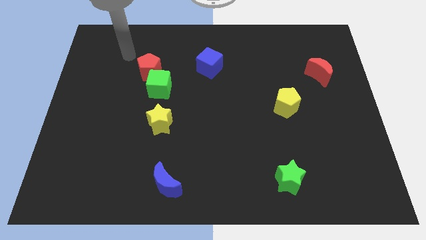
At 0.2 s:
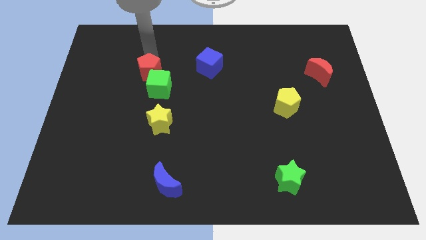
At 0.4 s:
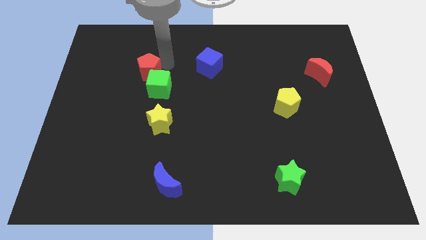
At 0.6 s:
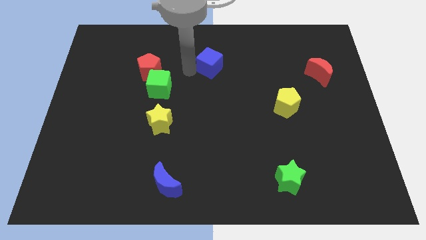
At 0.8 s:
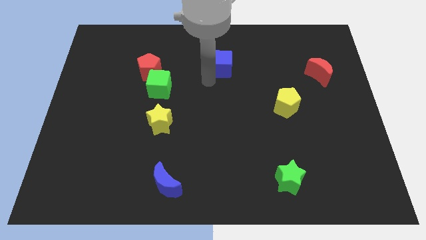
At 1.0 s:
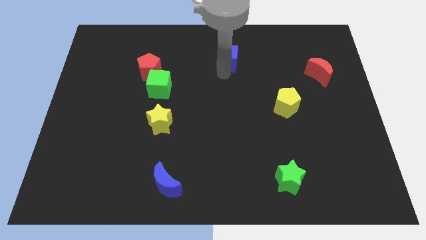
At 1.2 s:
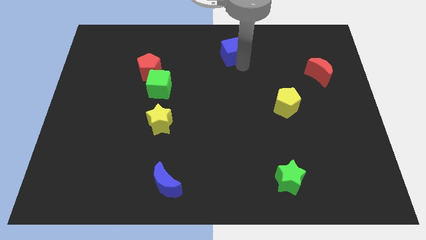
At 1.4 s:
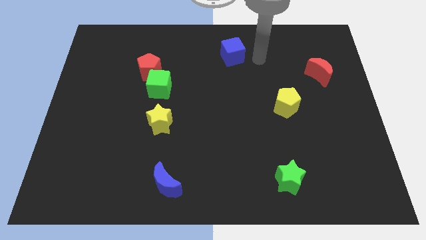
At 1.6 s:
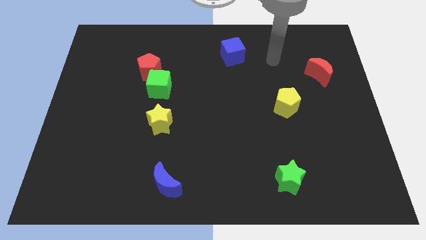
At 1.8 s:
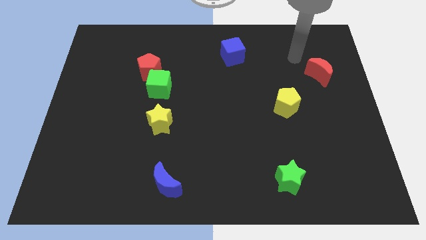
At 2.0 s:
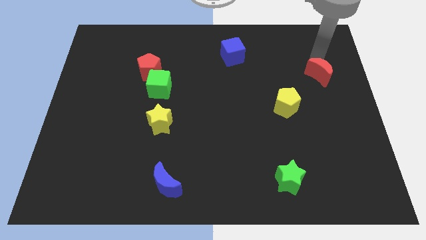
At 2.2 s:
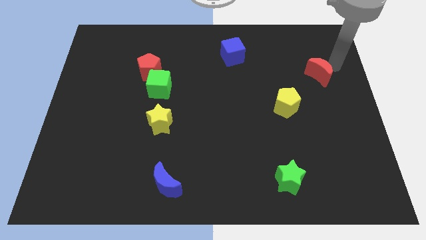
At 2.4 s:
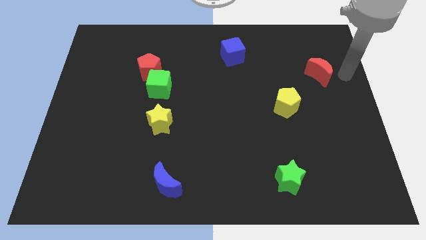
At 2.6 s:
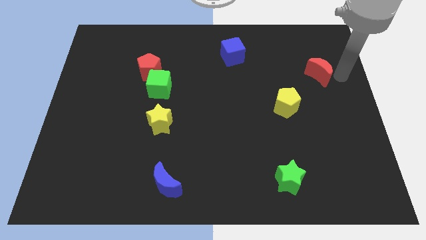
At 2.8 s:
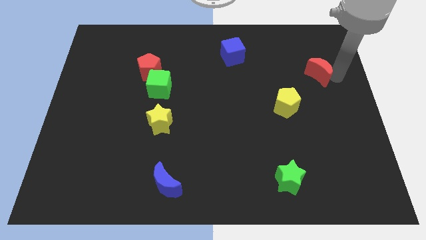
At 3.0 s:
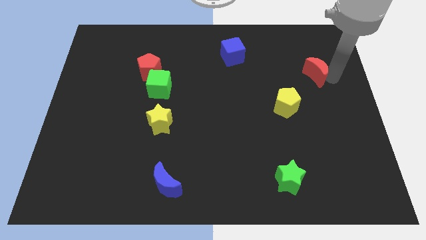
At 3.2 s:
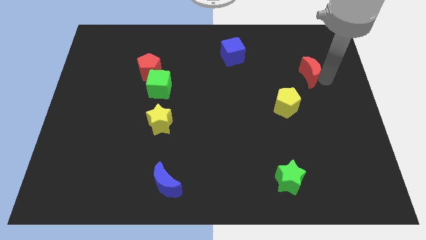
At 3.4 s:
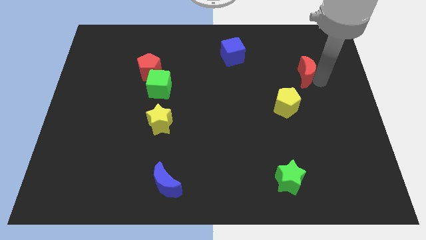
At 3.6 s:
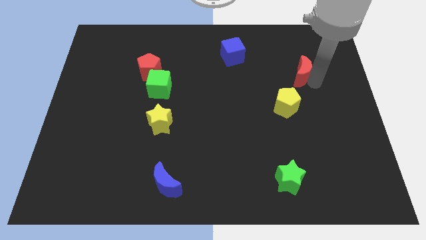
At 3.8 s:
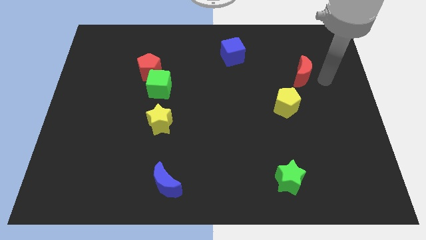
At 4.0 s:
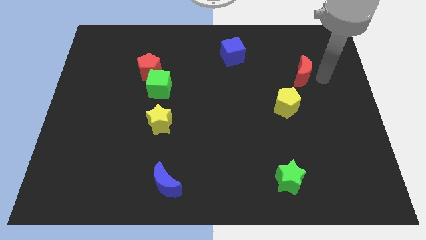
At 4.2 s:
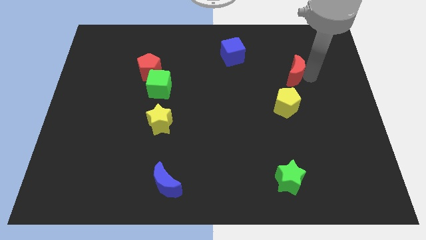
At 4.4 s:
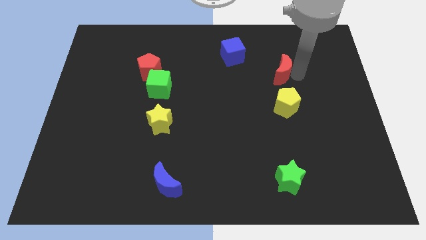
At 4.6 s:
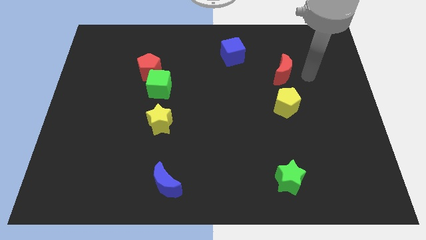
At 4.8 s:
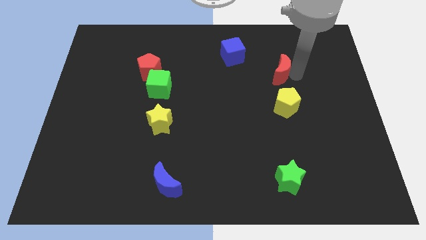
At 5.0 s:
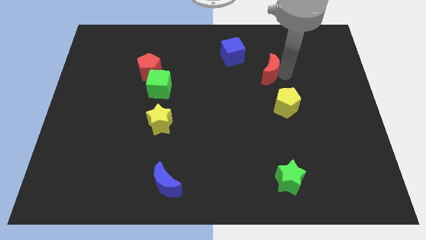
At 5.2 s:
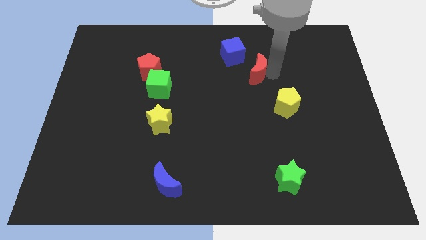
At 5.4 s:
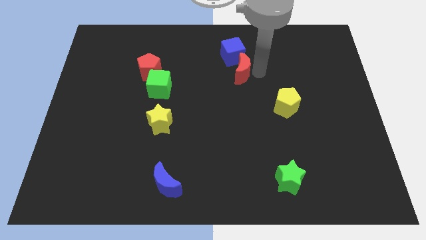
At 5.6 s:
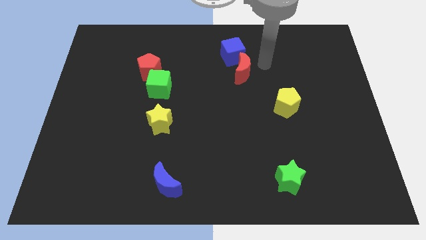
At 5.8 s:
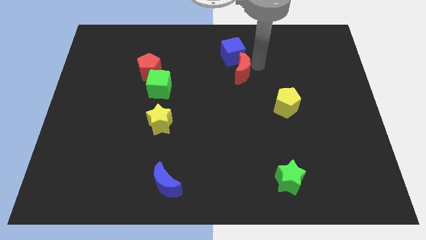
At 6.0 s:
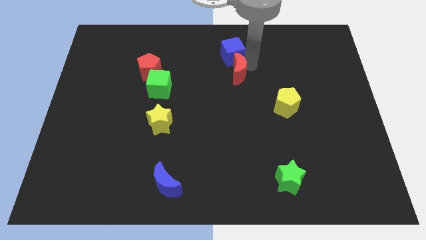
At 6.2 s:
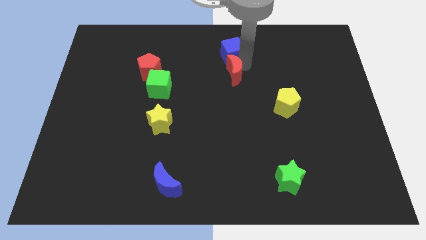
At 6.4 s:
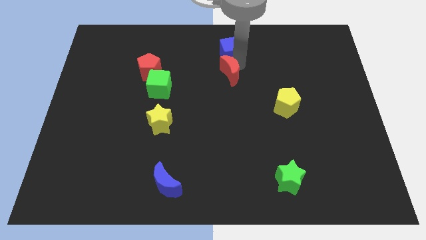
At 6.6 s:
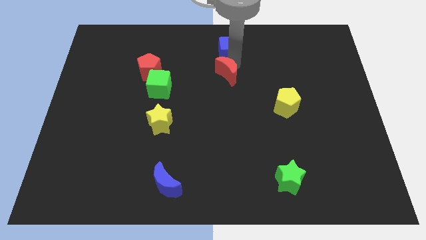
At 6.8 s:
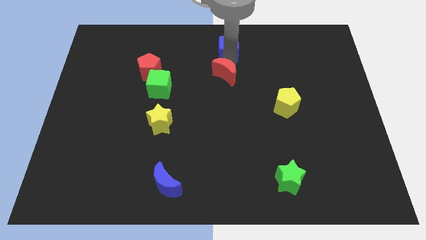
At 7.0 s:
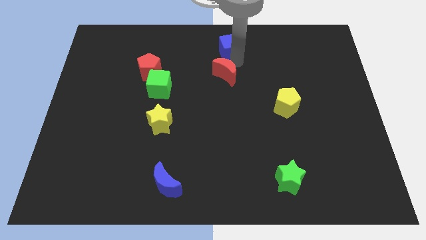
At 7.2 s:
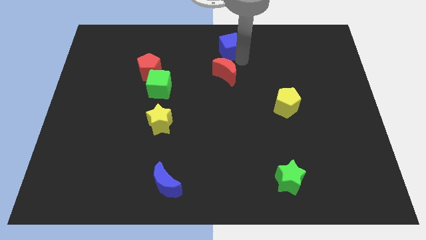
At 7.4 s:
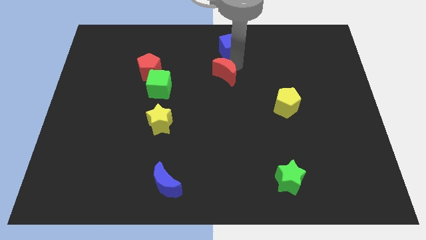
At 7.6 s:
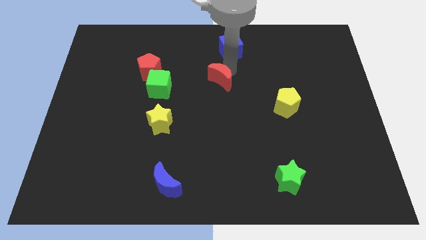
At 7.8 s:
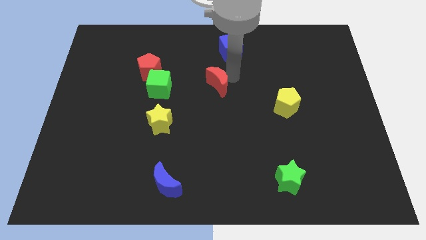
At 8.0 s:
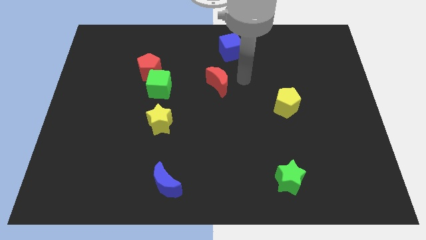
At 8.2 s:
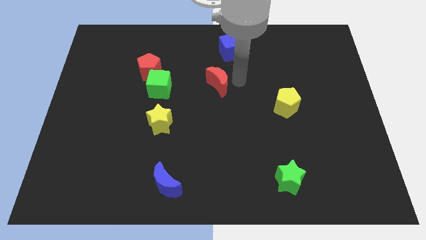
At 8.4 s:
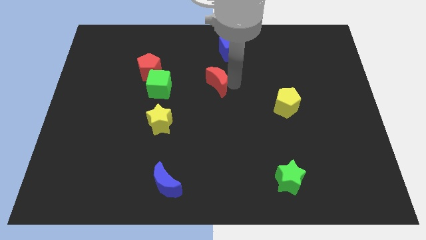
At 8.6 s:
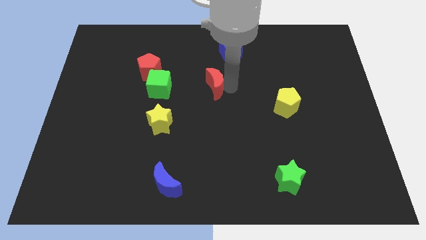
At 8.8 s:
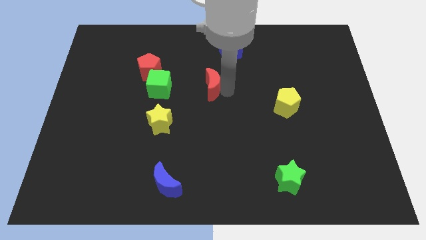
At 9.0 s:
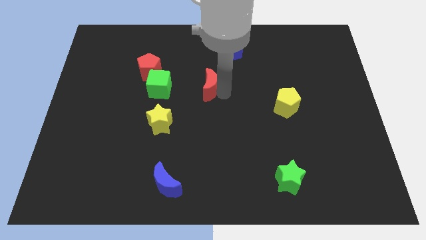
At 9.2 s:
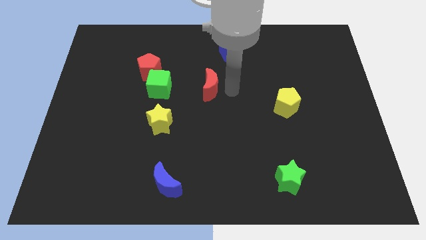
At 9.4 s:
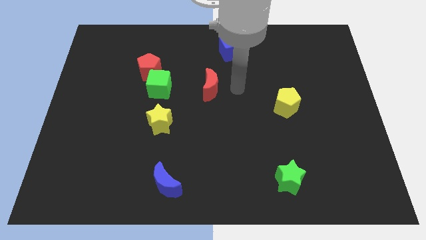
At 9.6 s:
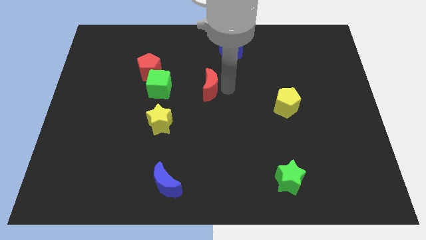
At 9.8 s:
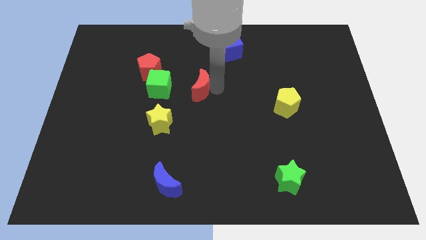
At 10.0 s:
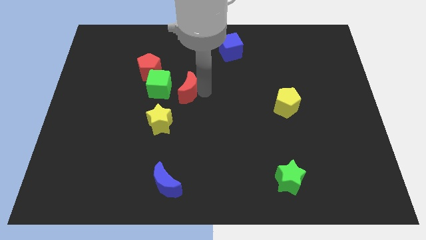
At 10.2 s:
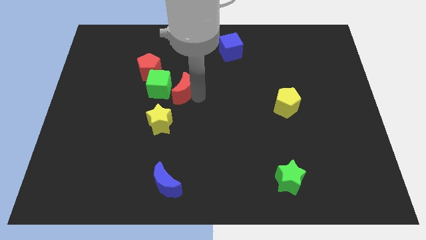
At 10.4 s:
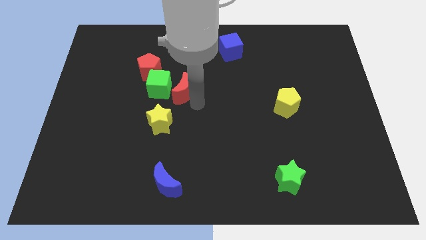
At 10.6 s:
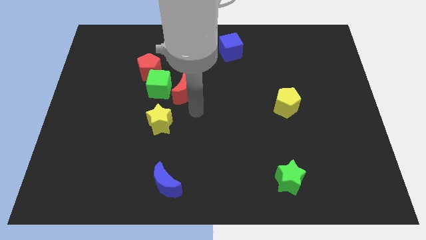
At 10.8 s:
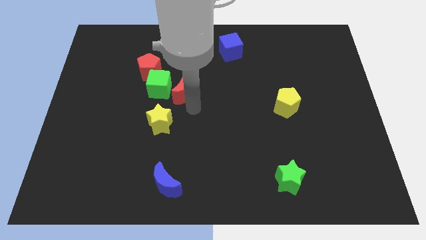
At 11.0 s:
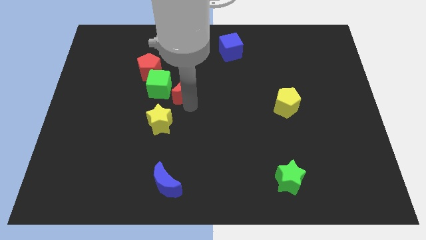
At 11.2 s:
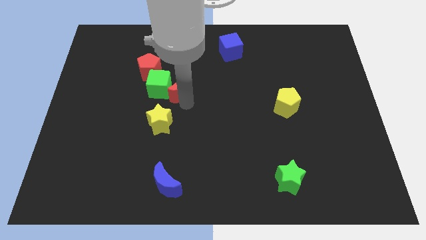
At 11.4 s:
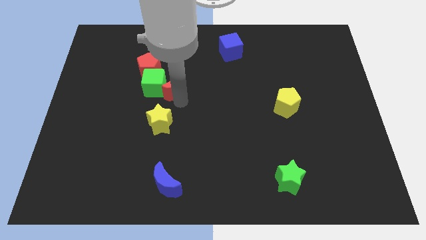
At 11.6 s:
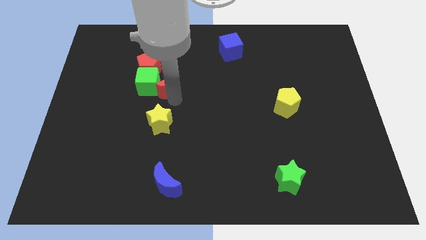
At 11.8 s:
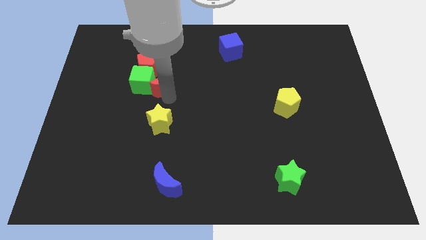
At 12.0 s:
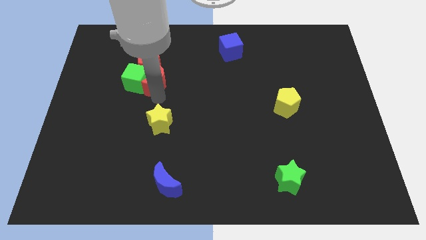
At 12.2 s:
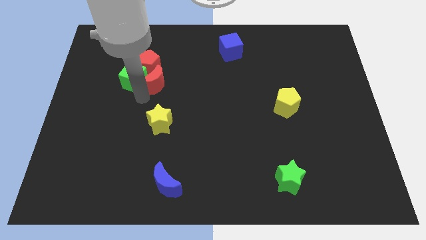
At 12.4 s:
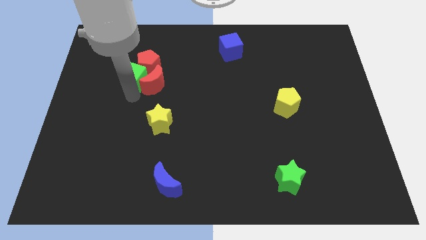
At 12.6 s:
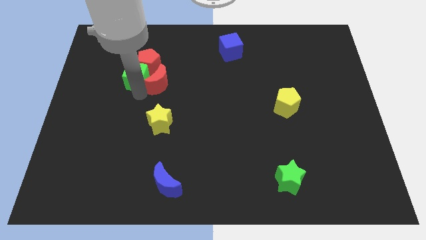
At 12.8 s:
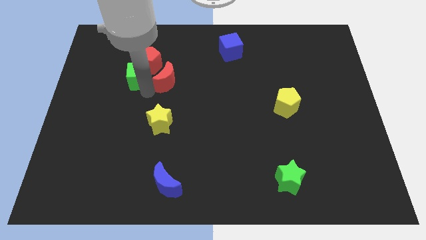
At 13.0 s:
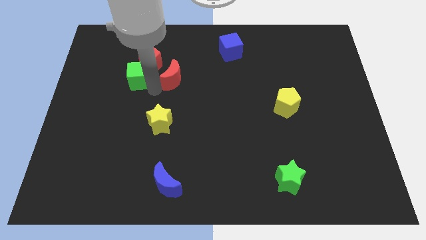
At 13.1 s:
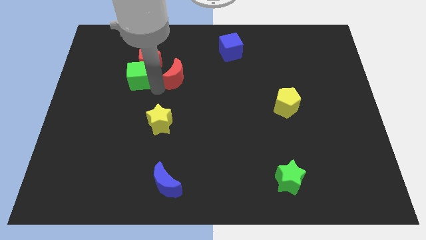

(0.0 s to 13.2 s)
move the red moon to the right of the red pentagon

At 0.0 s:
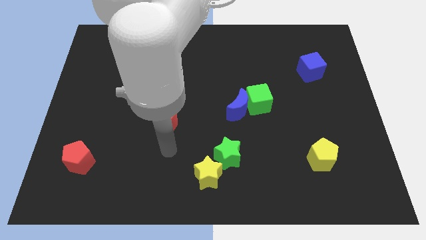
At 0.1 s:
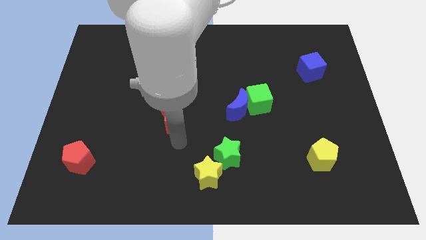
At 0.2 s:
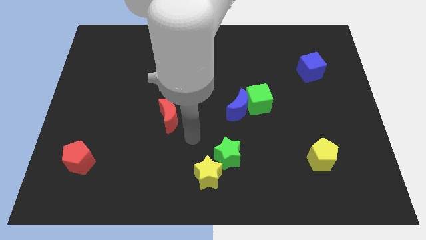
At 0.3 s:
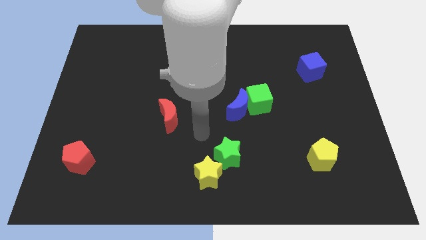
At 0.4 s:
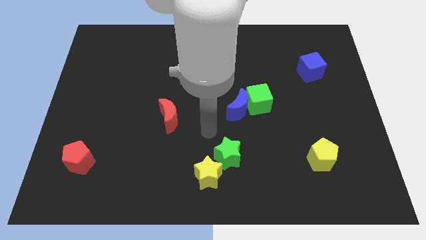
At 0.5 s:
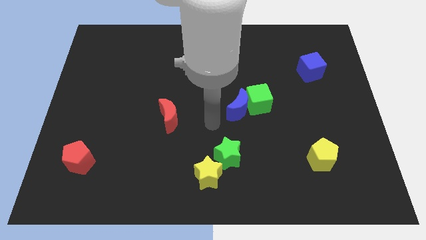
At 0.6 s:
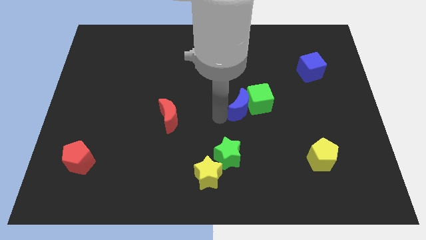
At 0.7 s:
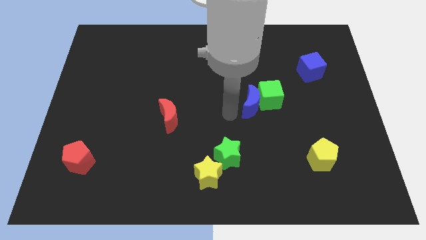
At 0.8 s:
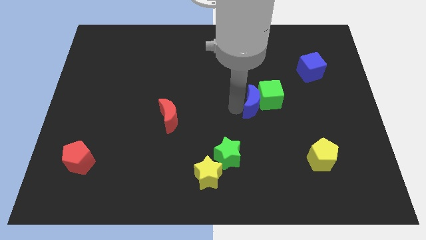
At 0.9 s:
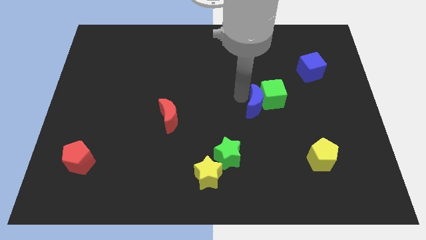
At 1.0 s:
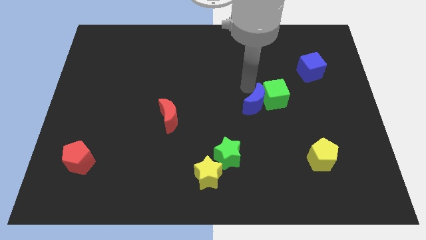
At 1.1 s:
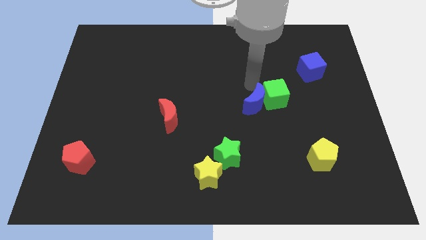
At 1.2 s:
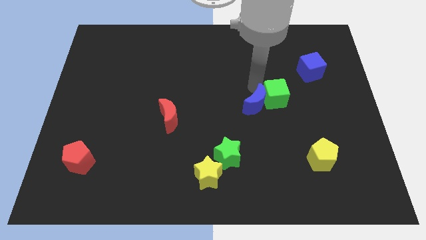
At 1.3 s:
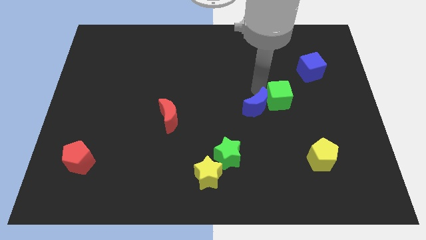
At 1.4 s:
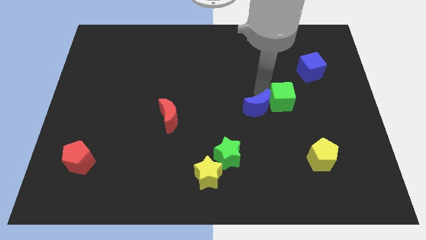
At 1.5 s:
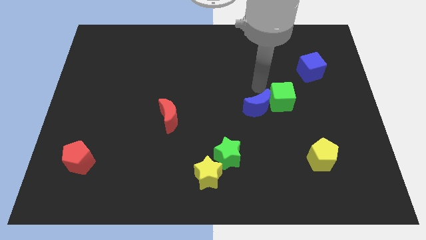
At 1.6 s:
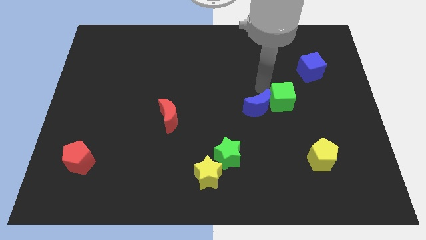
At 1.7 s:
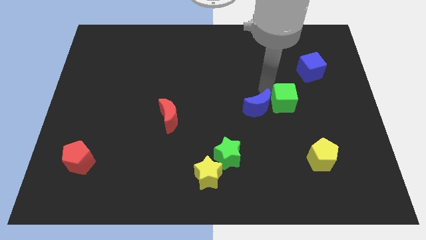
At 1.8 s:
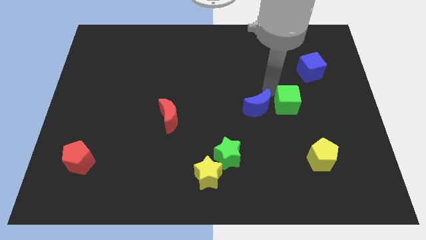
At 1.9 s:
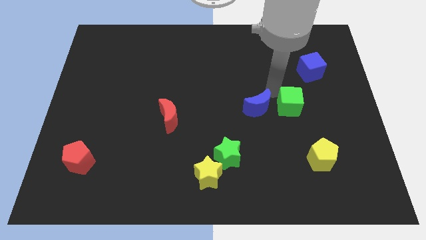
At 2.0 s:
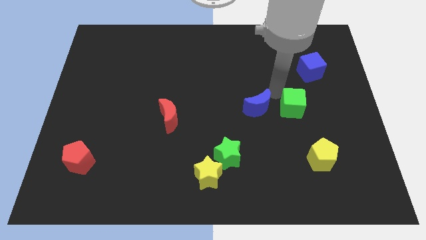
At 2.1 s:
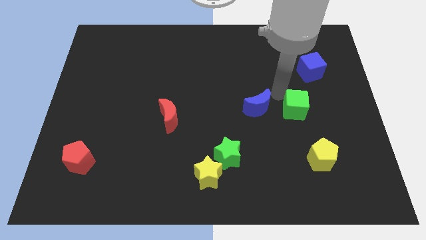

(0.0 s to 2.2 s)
move the green cube above the yellow pentagon
